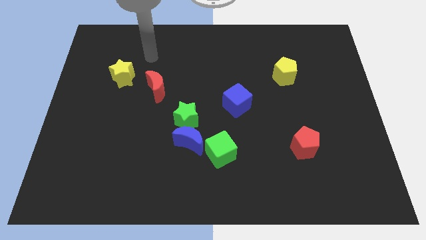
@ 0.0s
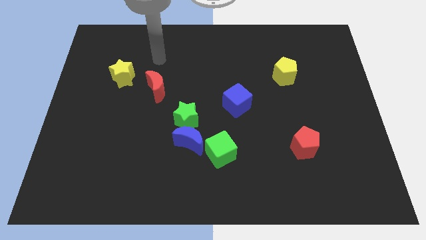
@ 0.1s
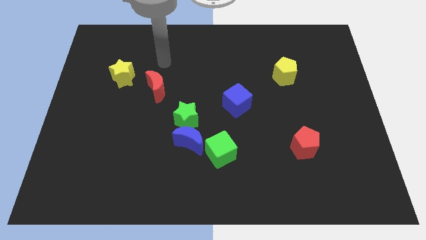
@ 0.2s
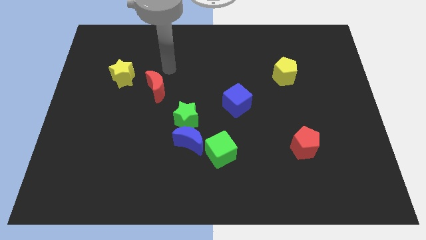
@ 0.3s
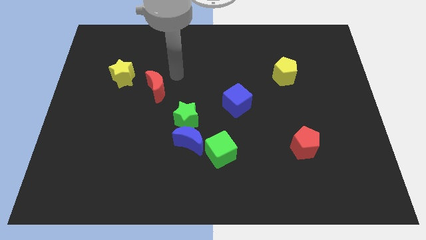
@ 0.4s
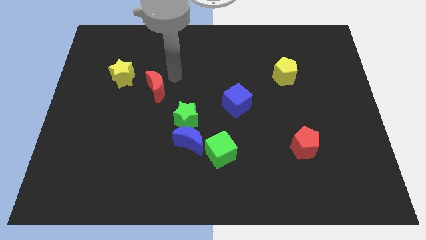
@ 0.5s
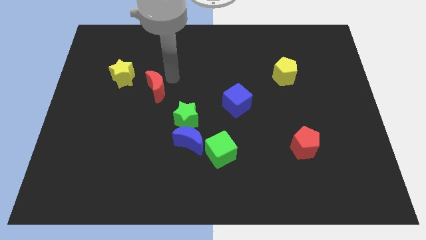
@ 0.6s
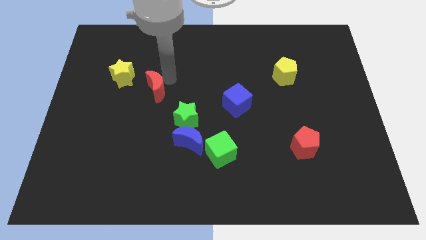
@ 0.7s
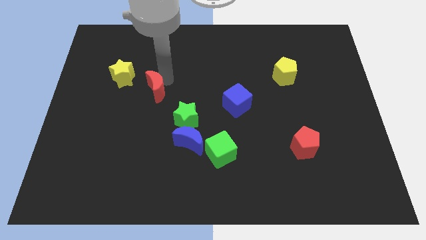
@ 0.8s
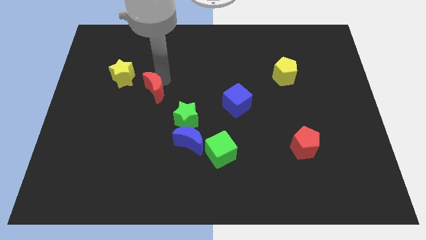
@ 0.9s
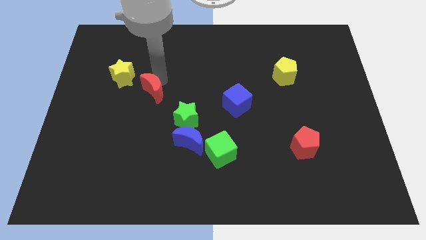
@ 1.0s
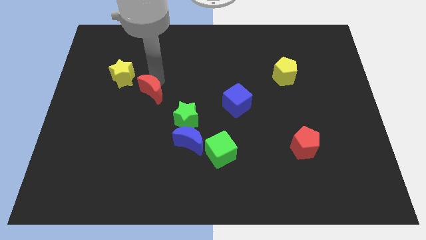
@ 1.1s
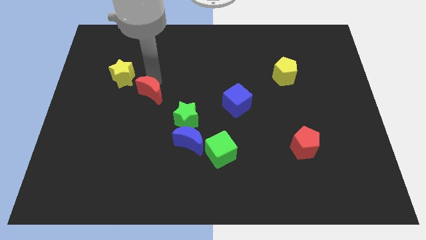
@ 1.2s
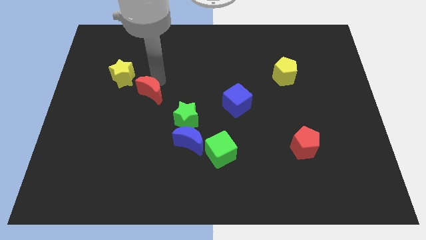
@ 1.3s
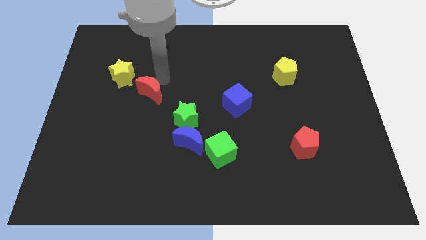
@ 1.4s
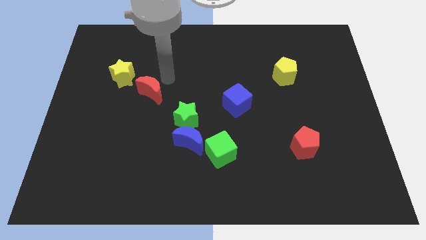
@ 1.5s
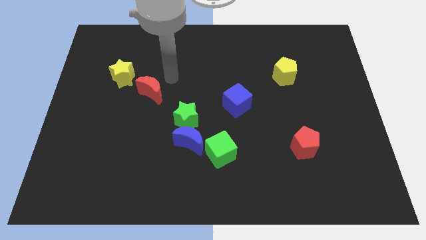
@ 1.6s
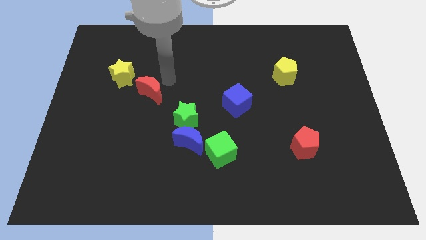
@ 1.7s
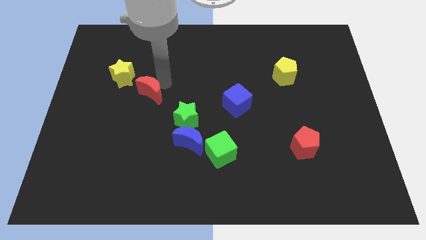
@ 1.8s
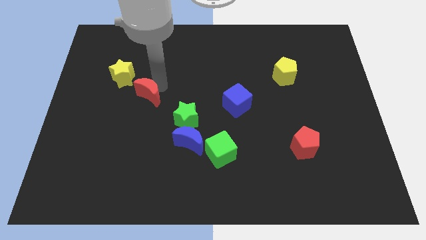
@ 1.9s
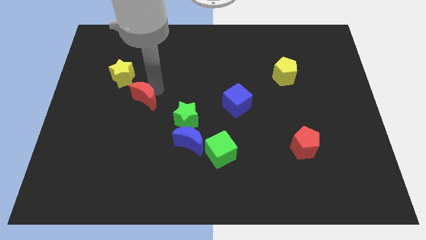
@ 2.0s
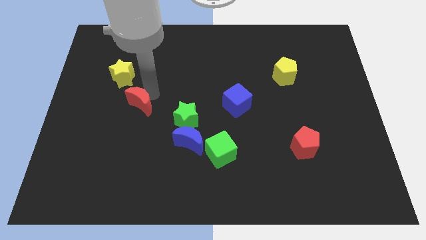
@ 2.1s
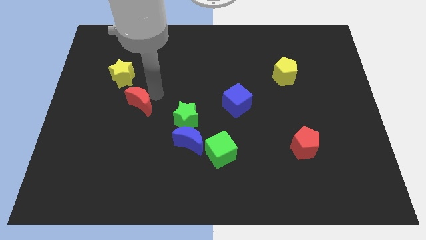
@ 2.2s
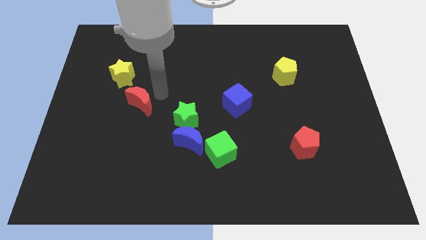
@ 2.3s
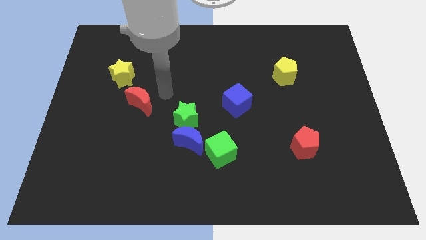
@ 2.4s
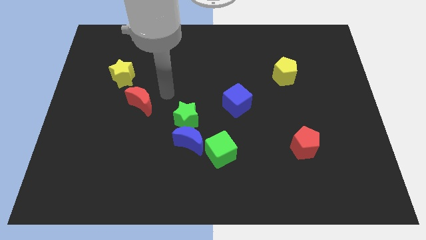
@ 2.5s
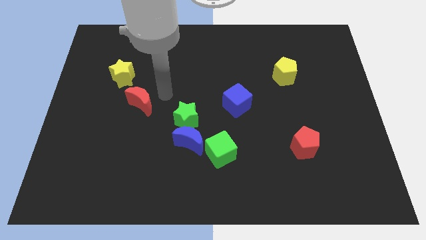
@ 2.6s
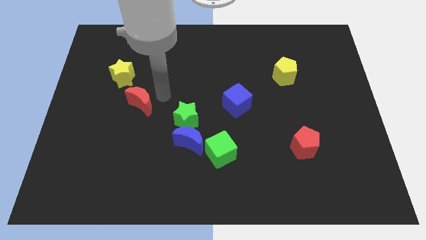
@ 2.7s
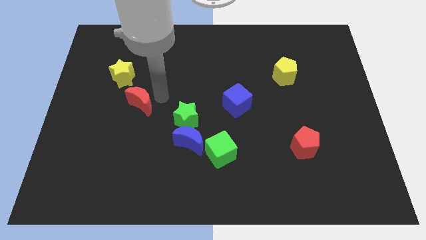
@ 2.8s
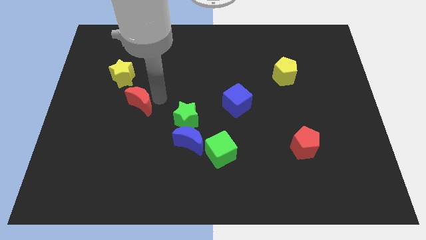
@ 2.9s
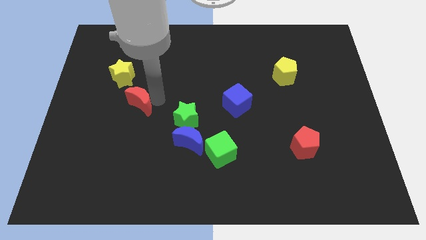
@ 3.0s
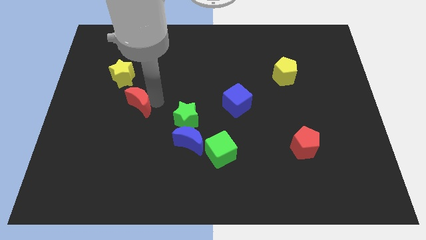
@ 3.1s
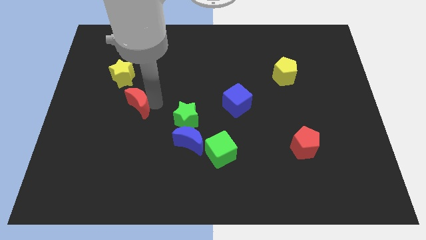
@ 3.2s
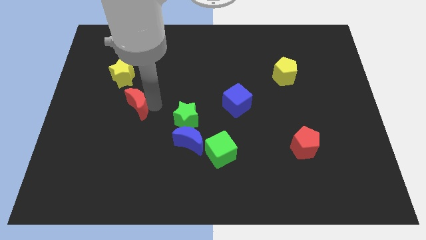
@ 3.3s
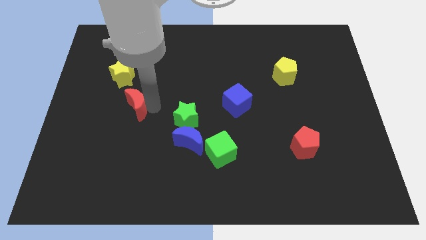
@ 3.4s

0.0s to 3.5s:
move the red moon slightly downwards and then to the left

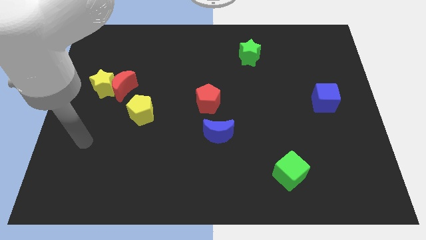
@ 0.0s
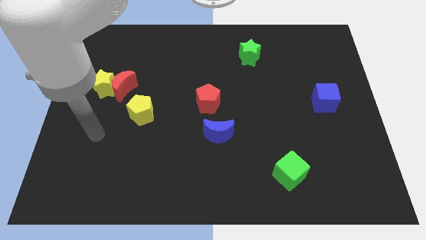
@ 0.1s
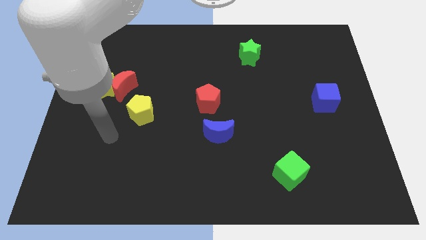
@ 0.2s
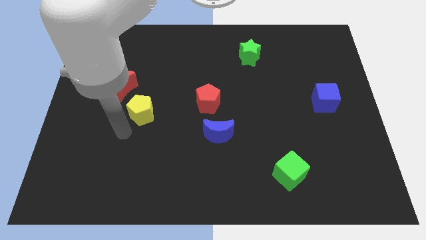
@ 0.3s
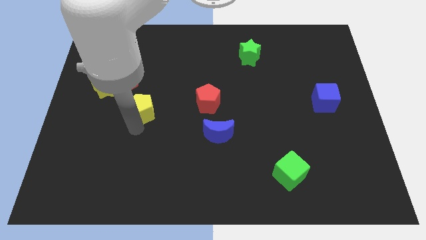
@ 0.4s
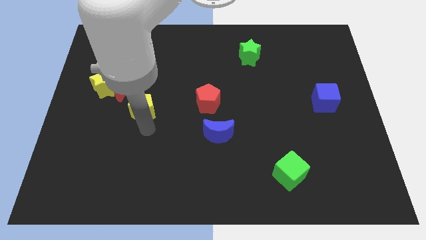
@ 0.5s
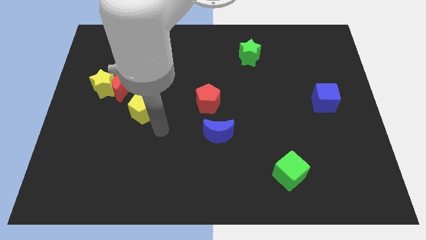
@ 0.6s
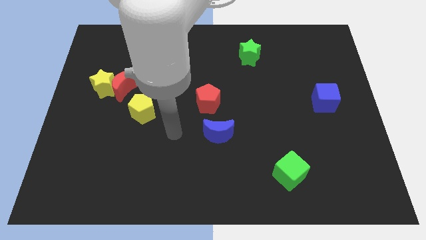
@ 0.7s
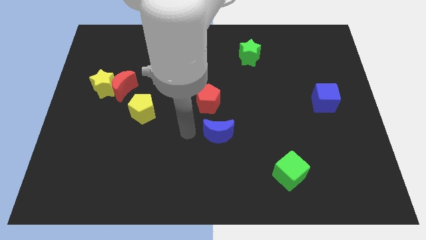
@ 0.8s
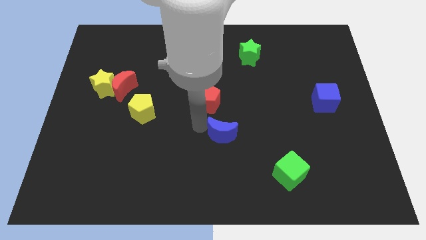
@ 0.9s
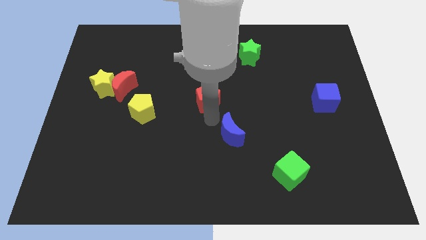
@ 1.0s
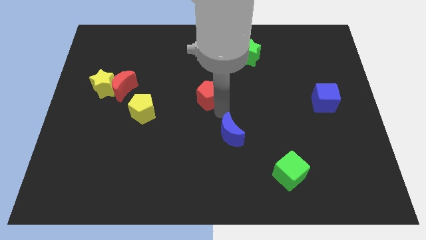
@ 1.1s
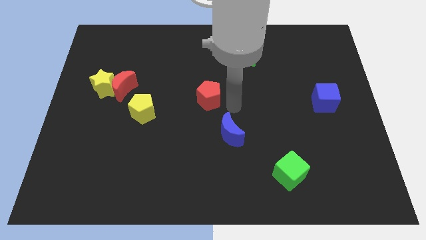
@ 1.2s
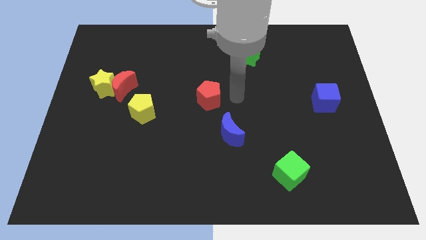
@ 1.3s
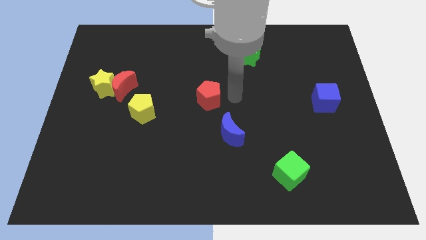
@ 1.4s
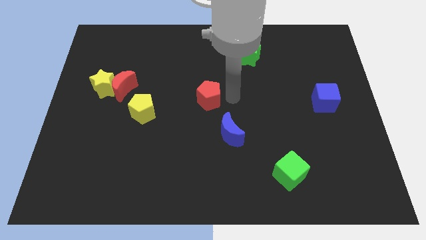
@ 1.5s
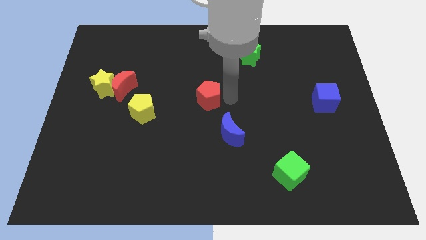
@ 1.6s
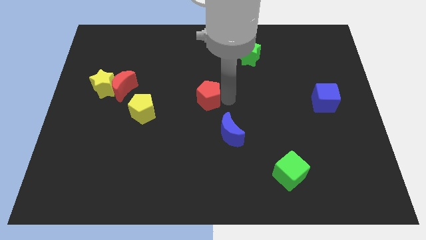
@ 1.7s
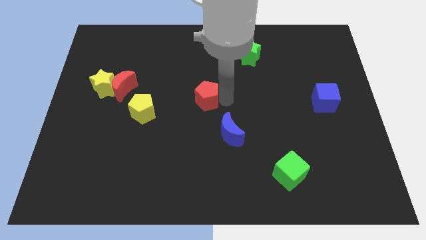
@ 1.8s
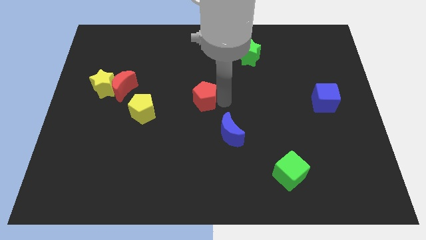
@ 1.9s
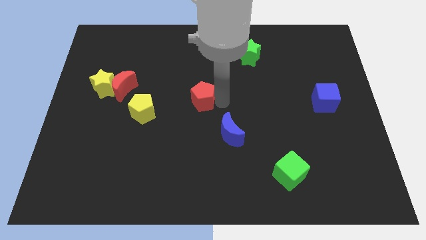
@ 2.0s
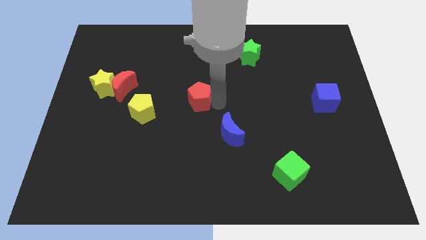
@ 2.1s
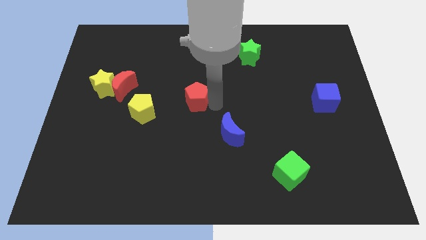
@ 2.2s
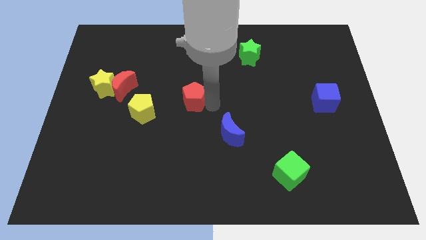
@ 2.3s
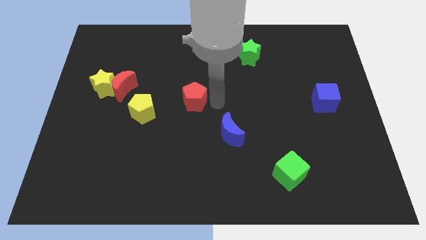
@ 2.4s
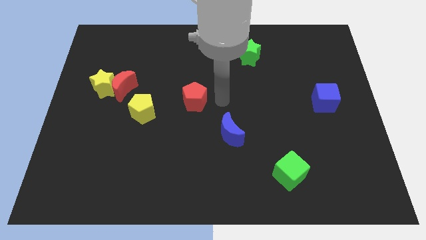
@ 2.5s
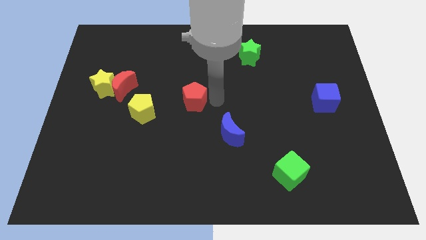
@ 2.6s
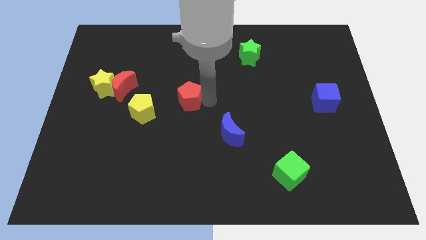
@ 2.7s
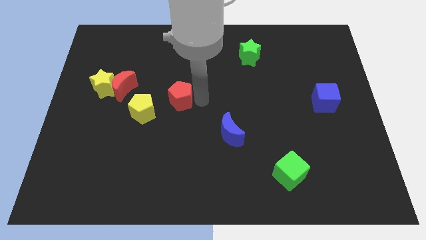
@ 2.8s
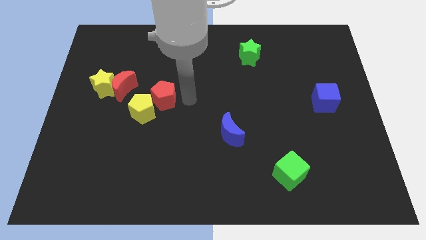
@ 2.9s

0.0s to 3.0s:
slide the red pentagon to the left slightly

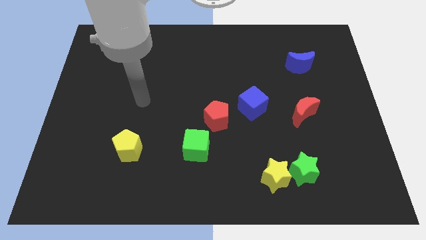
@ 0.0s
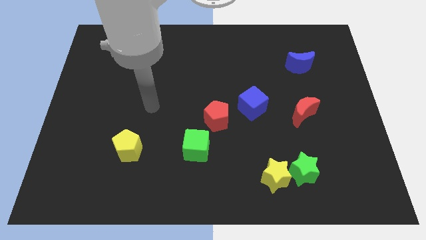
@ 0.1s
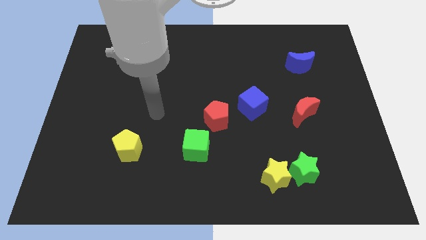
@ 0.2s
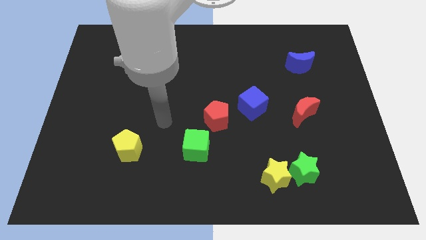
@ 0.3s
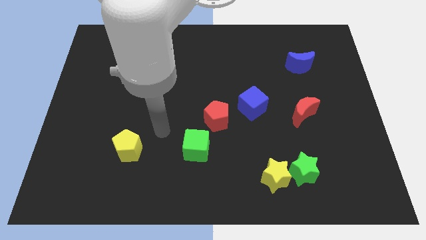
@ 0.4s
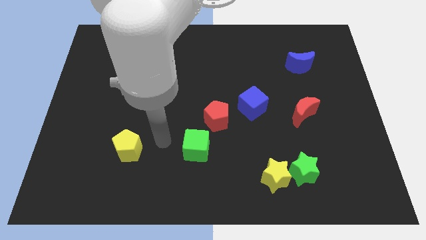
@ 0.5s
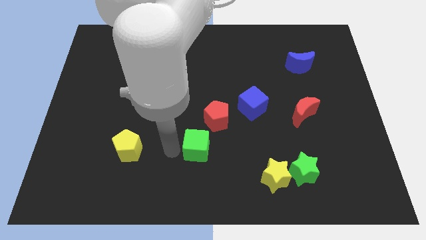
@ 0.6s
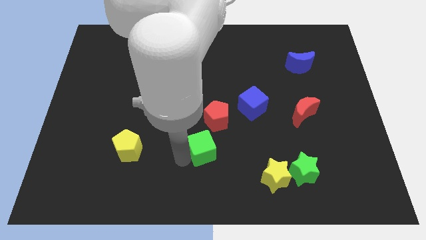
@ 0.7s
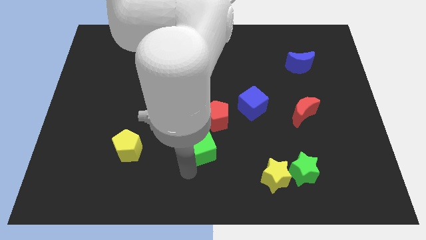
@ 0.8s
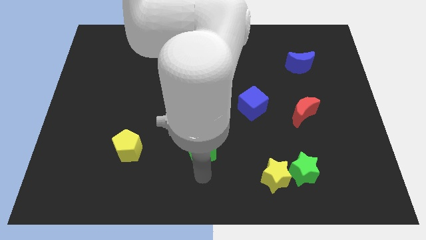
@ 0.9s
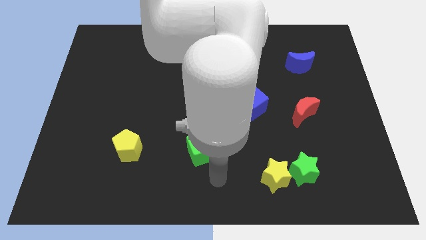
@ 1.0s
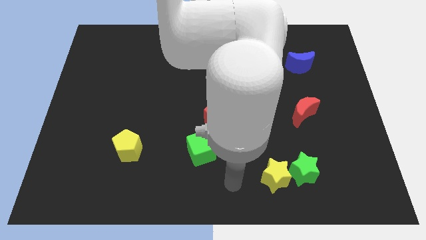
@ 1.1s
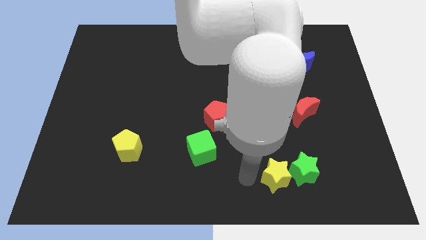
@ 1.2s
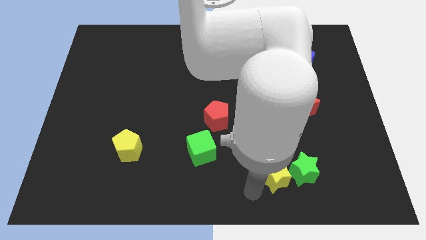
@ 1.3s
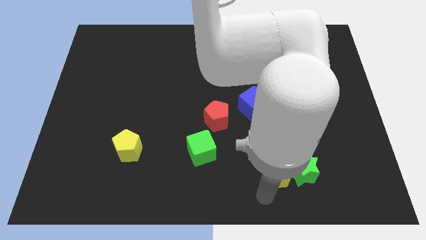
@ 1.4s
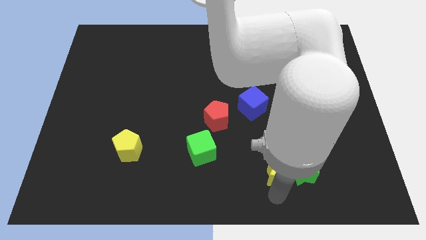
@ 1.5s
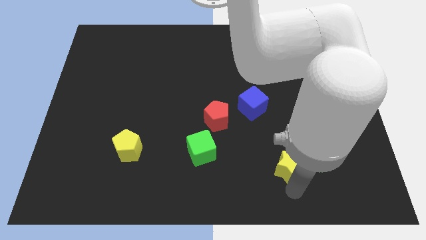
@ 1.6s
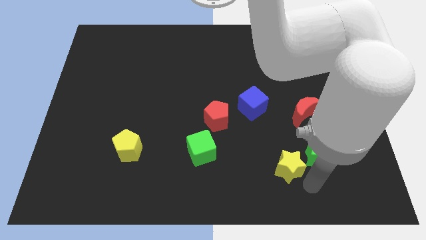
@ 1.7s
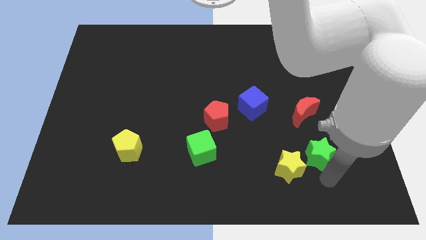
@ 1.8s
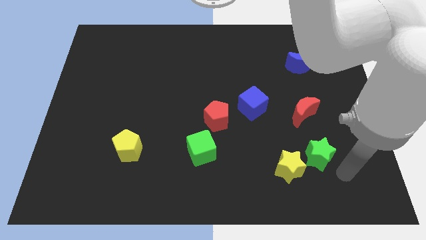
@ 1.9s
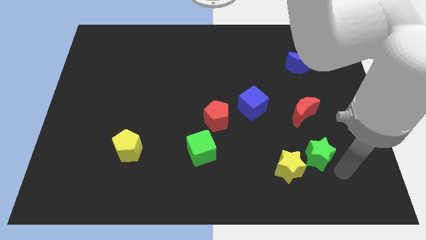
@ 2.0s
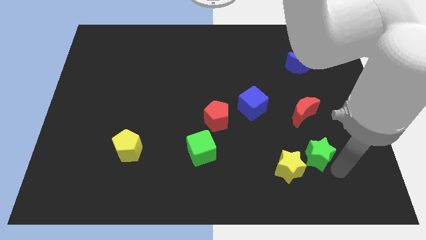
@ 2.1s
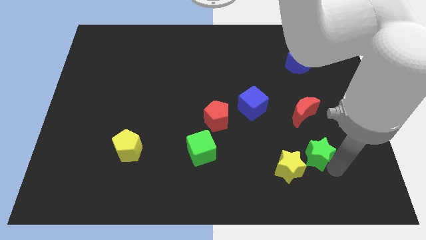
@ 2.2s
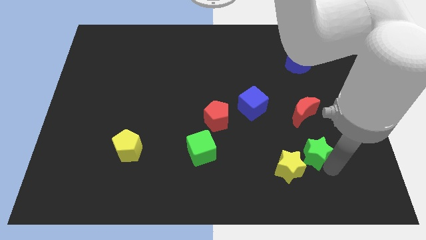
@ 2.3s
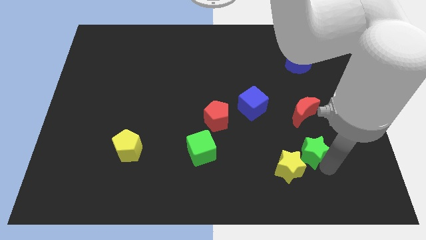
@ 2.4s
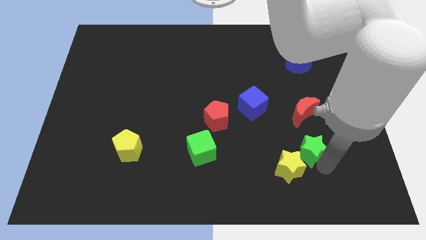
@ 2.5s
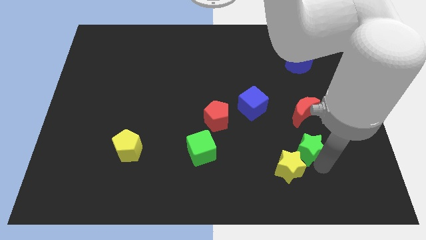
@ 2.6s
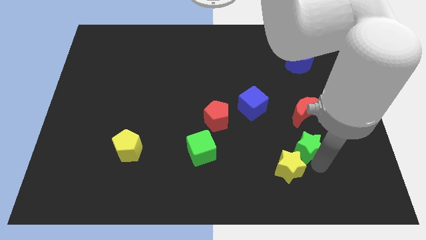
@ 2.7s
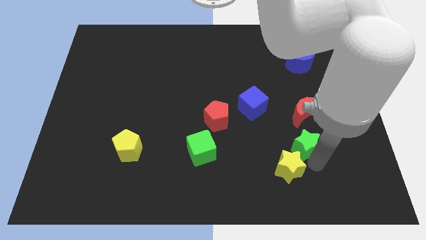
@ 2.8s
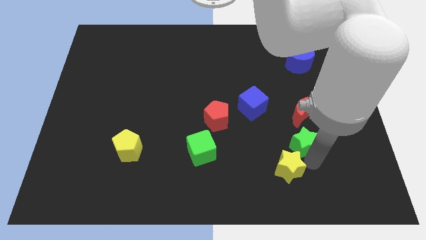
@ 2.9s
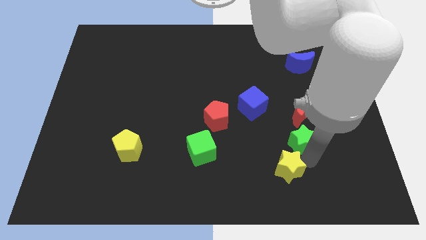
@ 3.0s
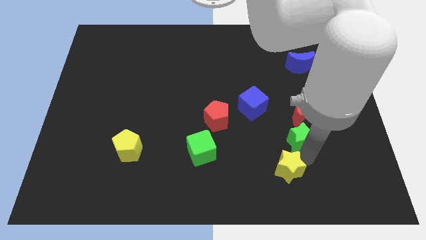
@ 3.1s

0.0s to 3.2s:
slide the green star upwards slightly
